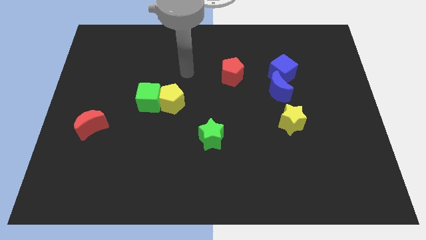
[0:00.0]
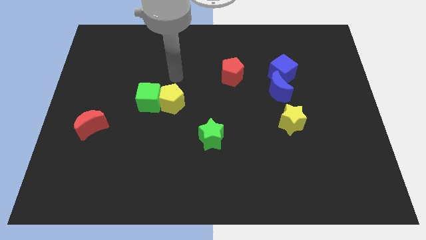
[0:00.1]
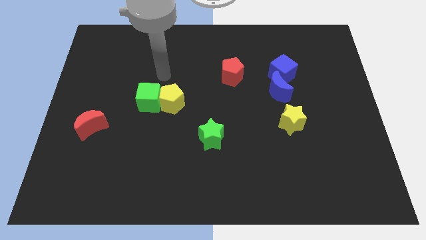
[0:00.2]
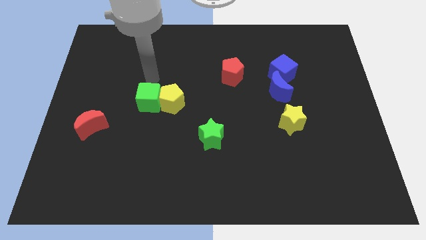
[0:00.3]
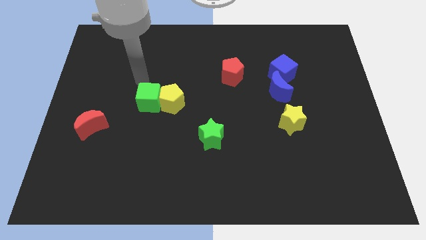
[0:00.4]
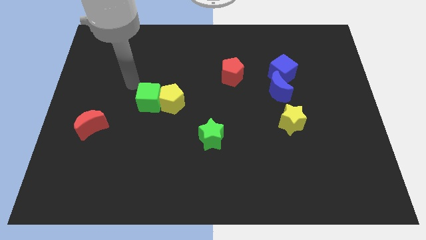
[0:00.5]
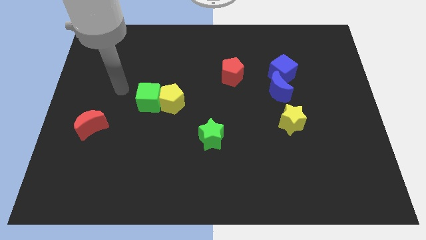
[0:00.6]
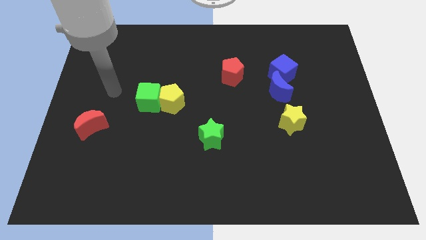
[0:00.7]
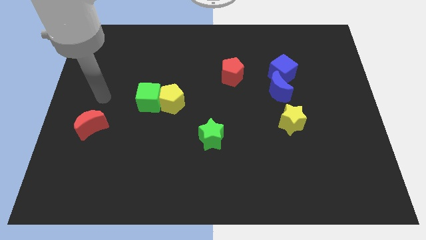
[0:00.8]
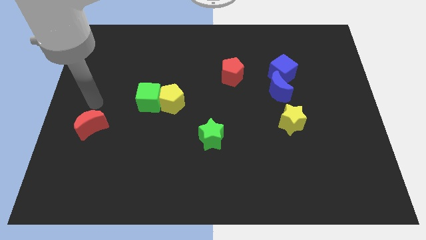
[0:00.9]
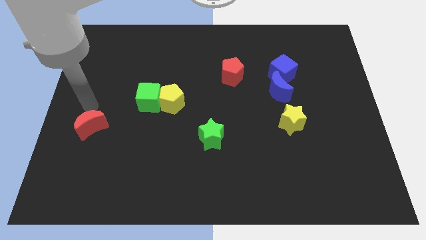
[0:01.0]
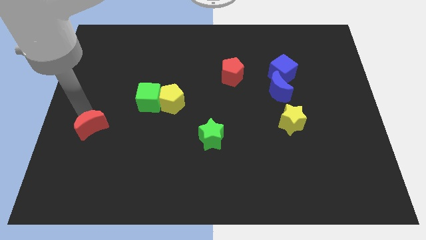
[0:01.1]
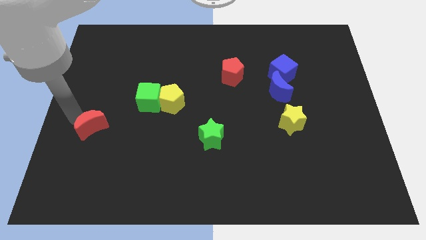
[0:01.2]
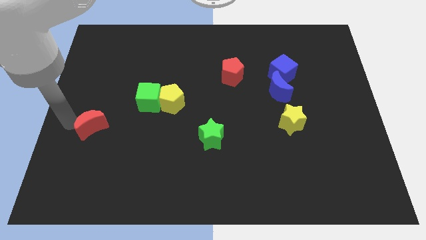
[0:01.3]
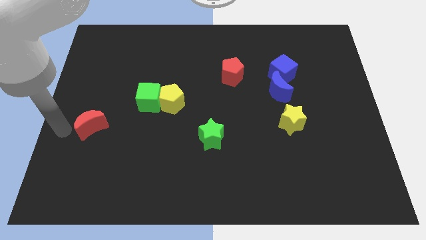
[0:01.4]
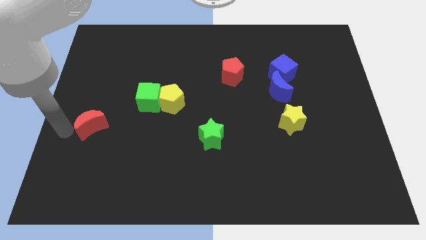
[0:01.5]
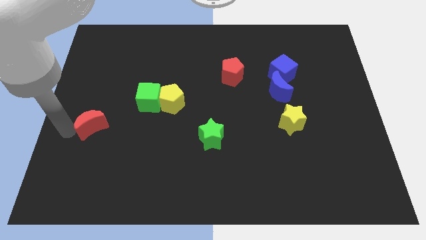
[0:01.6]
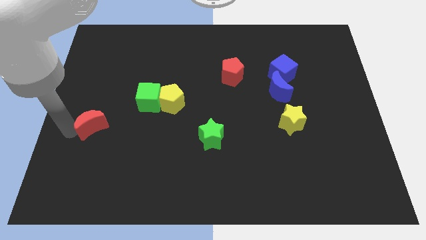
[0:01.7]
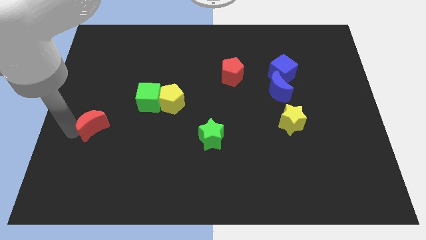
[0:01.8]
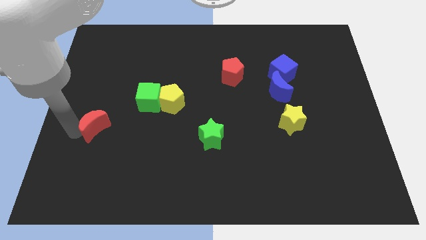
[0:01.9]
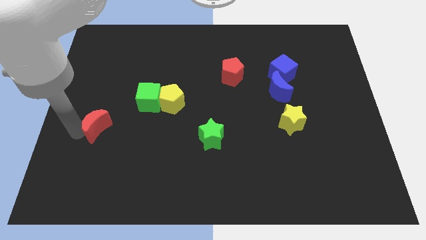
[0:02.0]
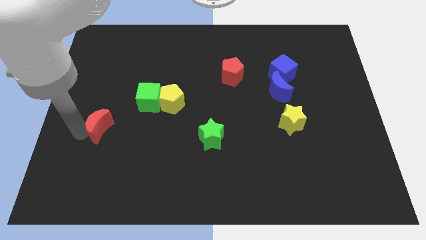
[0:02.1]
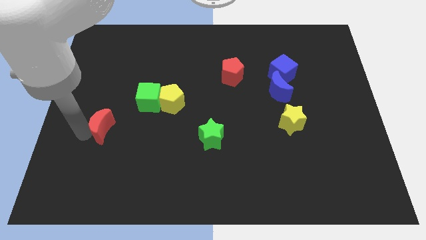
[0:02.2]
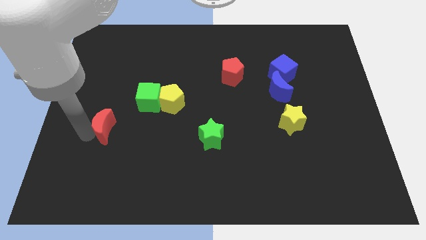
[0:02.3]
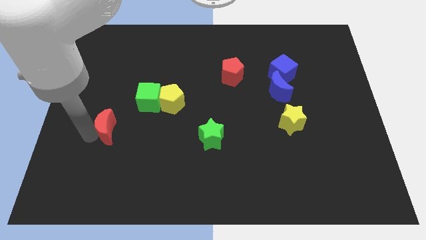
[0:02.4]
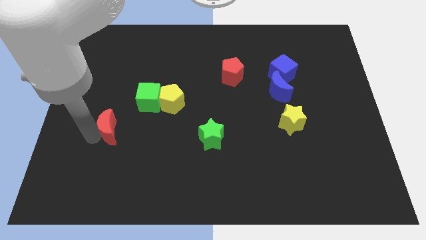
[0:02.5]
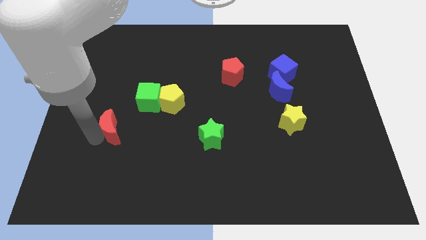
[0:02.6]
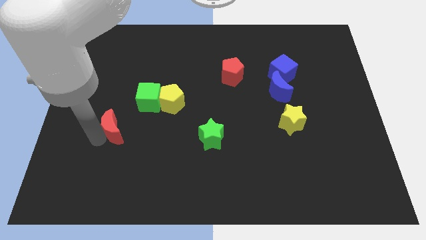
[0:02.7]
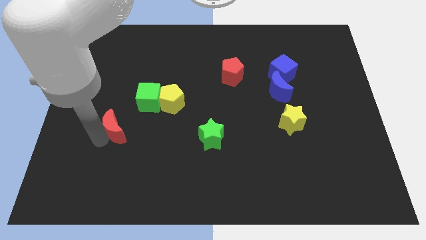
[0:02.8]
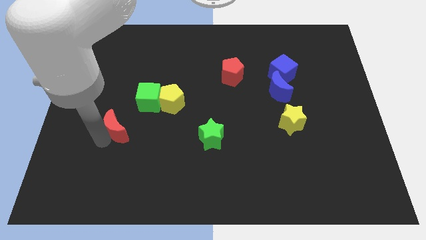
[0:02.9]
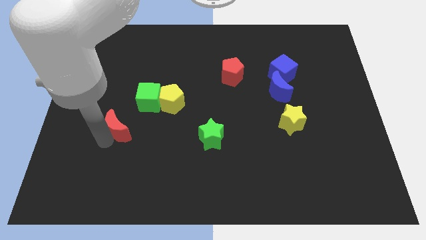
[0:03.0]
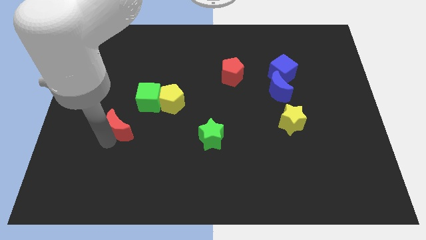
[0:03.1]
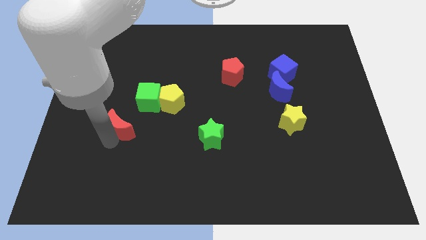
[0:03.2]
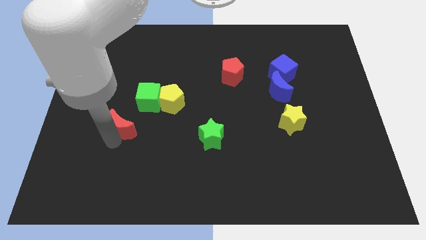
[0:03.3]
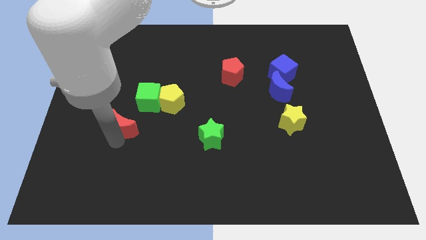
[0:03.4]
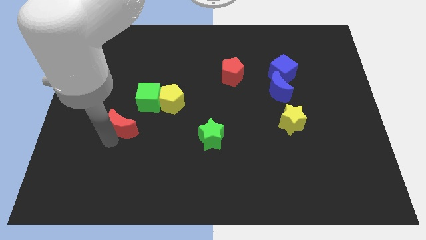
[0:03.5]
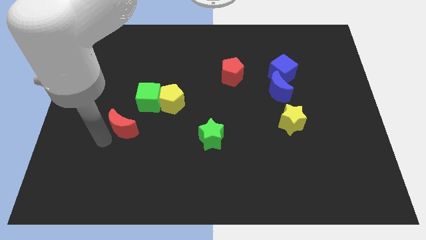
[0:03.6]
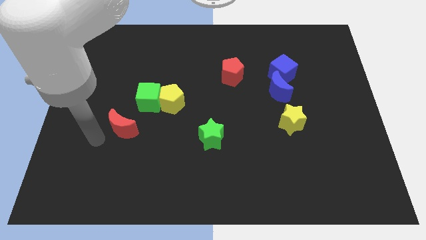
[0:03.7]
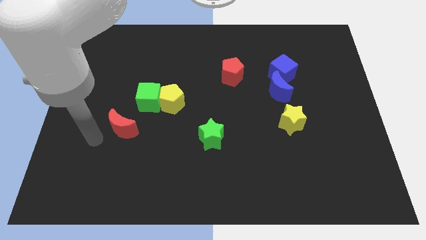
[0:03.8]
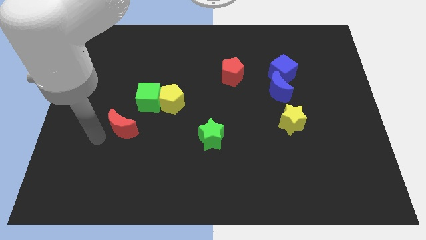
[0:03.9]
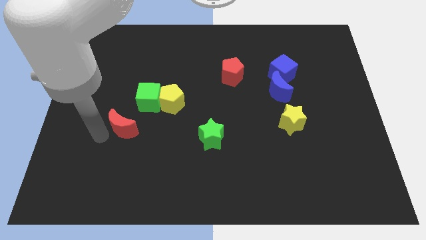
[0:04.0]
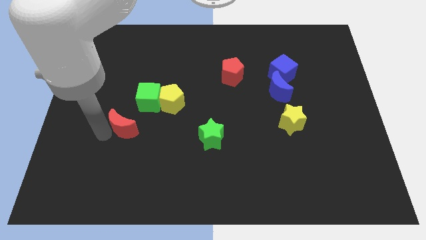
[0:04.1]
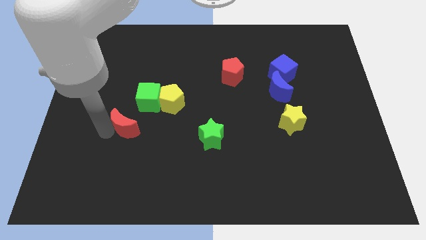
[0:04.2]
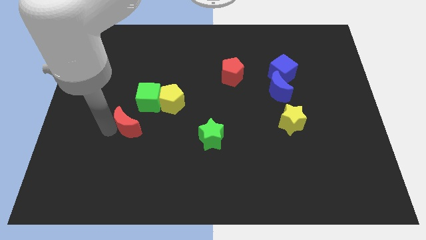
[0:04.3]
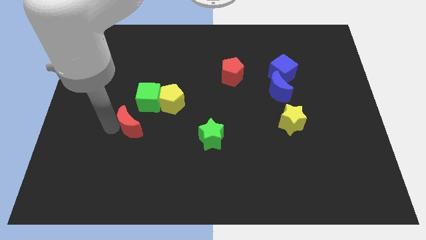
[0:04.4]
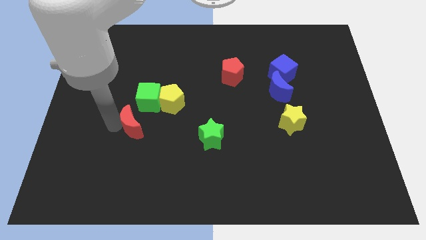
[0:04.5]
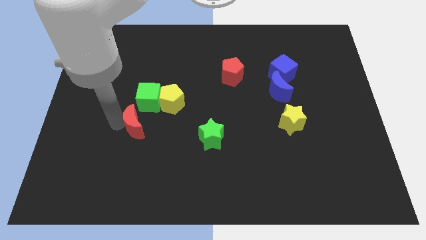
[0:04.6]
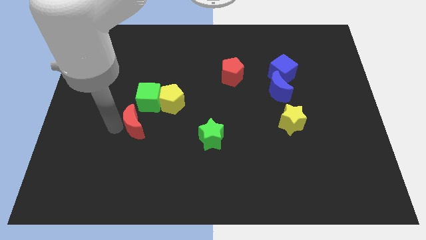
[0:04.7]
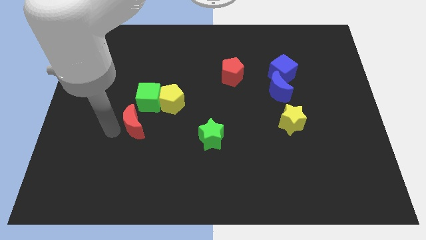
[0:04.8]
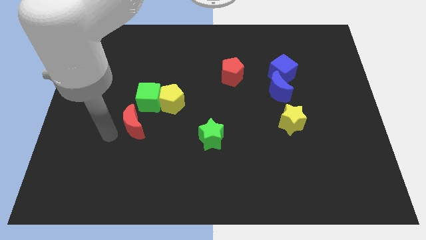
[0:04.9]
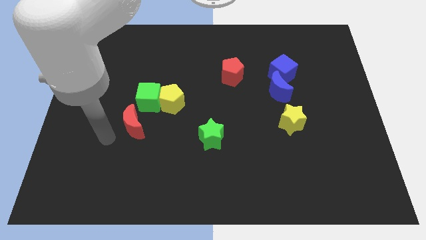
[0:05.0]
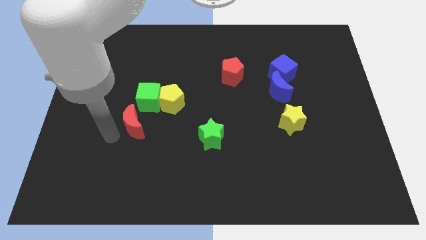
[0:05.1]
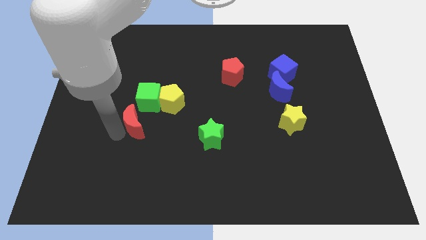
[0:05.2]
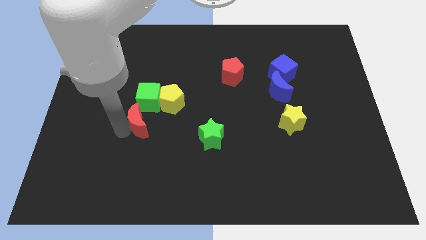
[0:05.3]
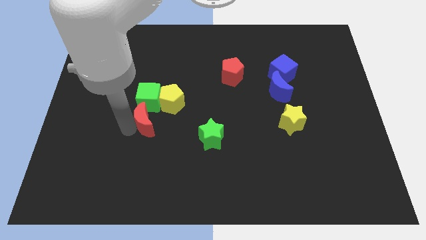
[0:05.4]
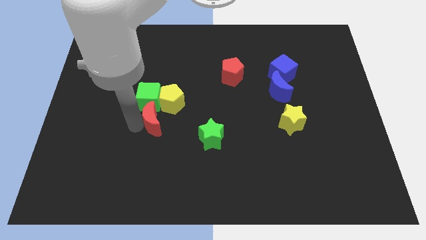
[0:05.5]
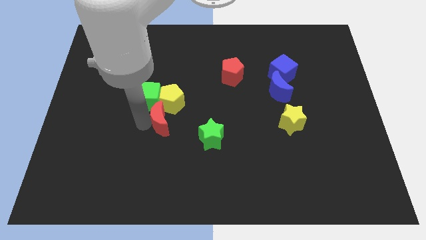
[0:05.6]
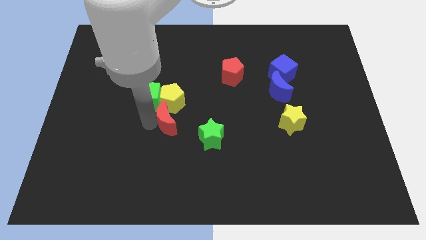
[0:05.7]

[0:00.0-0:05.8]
slide the red moon to the center of the board
